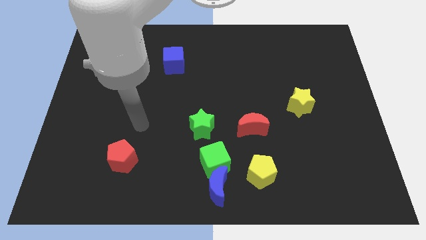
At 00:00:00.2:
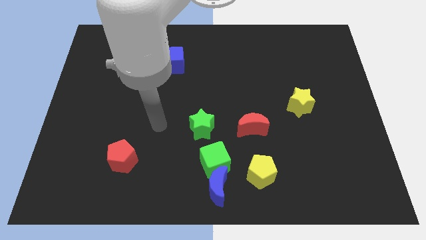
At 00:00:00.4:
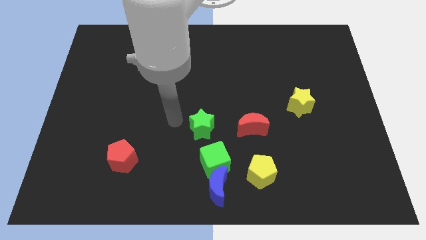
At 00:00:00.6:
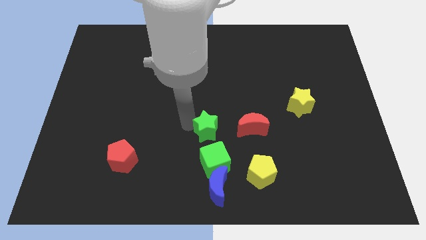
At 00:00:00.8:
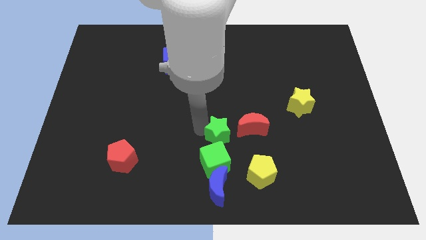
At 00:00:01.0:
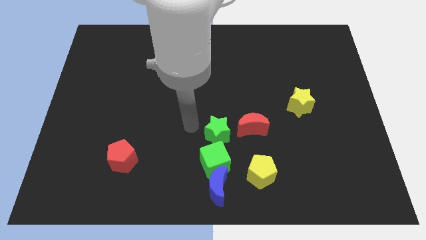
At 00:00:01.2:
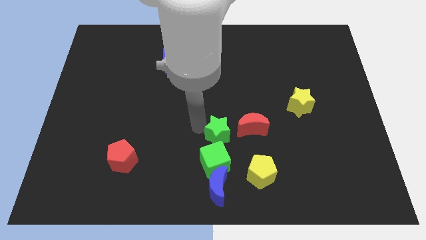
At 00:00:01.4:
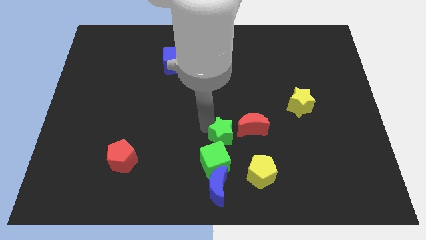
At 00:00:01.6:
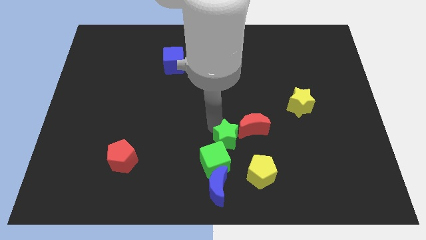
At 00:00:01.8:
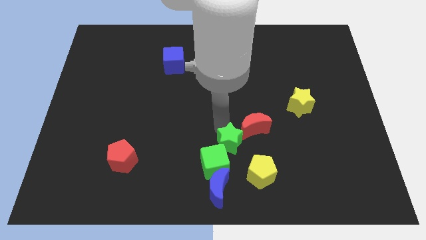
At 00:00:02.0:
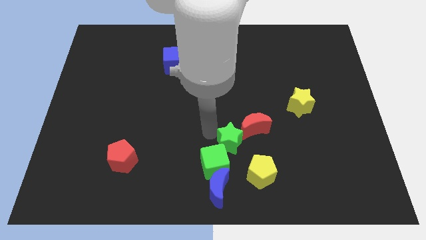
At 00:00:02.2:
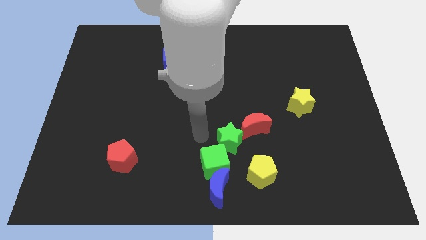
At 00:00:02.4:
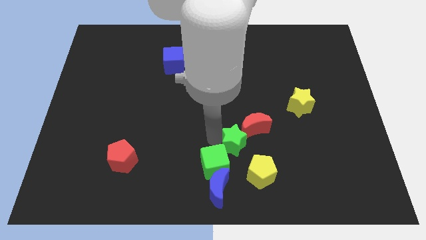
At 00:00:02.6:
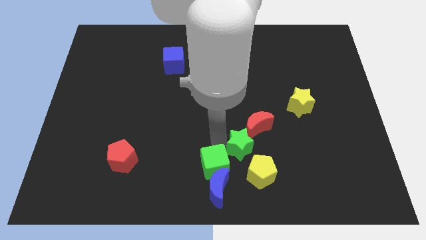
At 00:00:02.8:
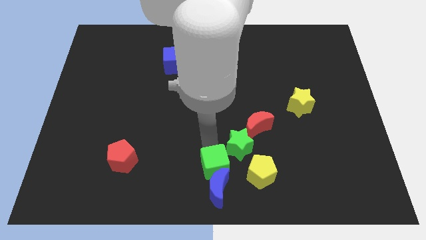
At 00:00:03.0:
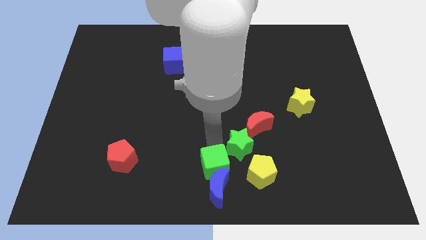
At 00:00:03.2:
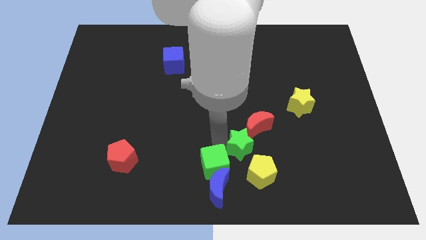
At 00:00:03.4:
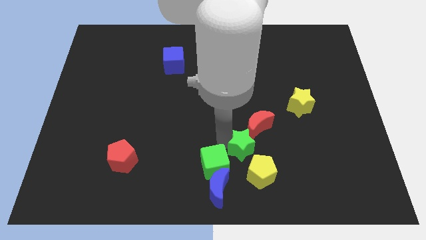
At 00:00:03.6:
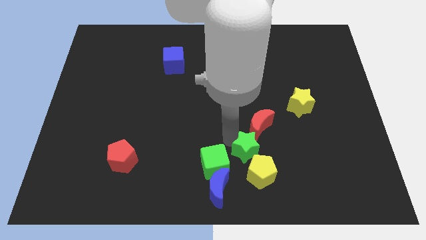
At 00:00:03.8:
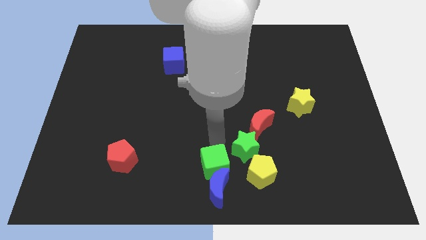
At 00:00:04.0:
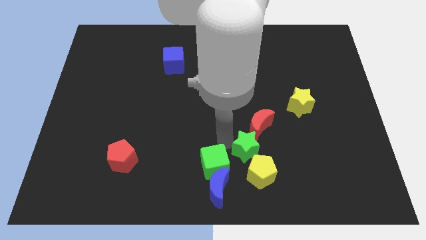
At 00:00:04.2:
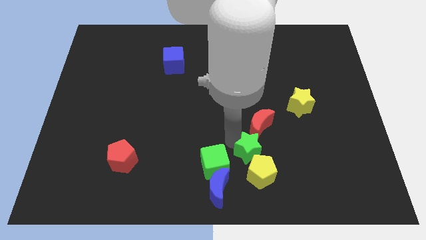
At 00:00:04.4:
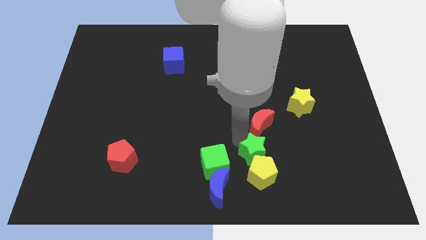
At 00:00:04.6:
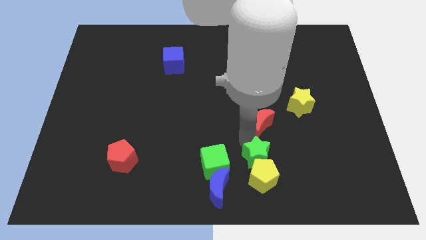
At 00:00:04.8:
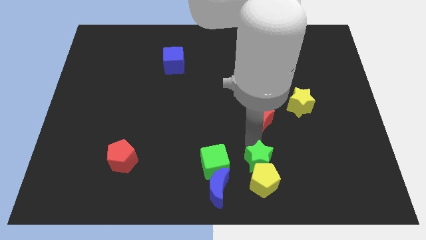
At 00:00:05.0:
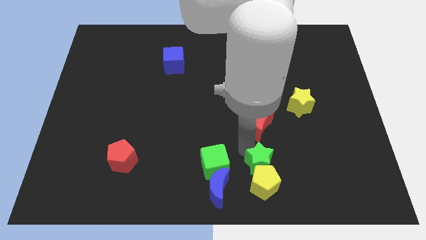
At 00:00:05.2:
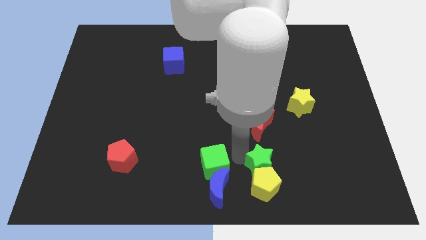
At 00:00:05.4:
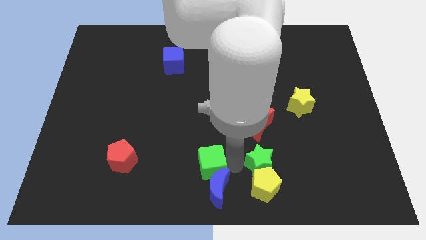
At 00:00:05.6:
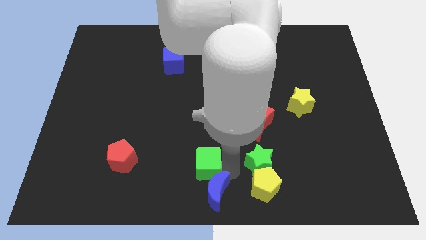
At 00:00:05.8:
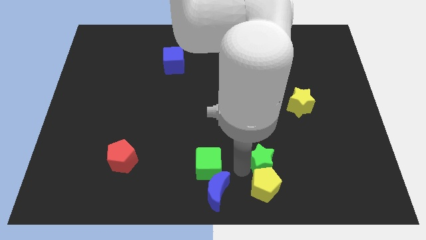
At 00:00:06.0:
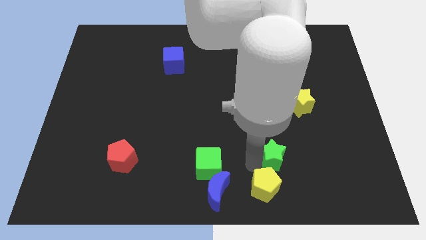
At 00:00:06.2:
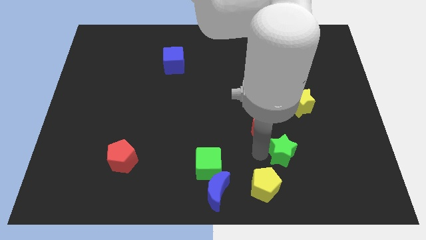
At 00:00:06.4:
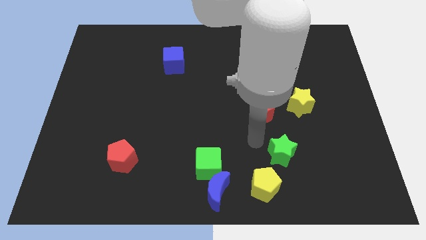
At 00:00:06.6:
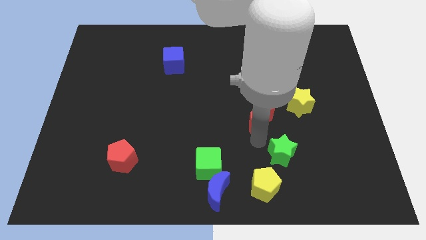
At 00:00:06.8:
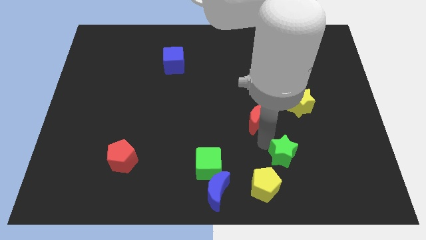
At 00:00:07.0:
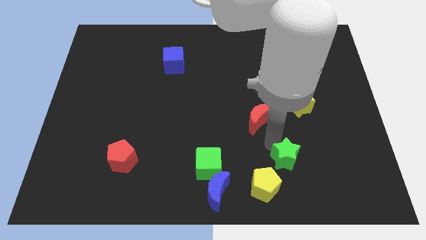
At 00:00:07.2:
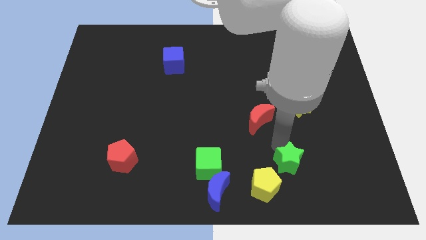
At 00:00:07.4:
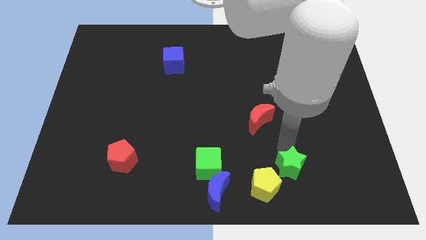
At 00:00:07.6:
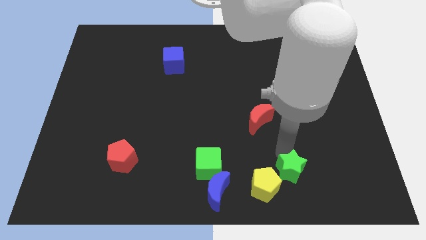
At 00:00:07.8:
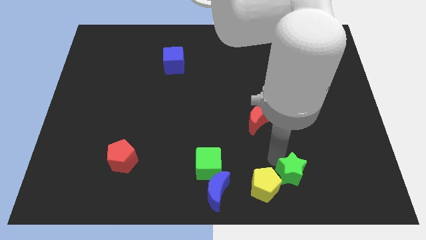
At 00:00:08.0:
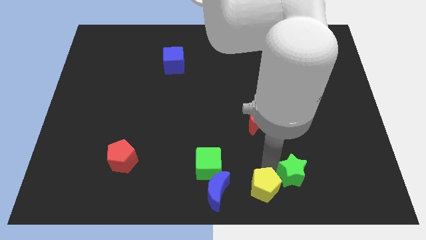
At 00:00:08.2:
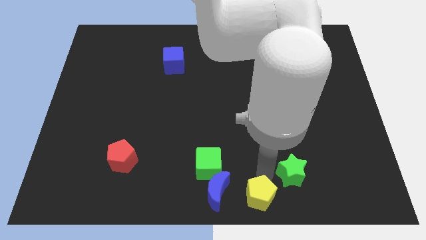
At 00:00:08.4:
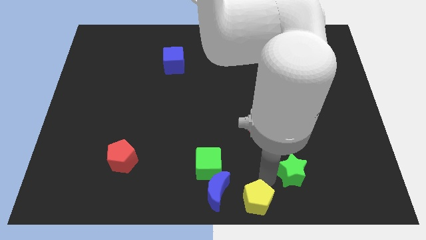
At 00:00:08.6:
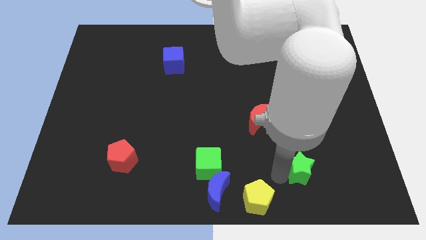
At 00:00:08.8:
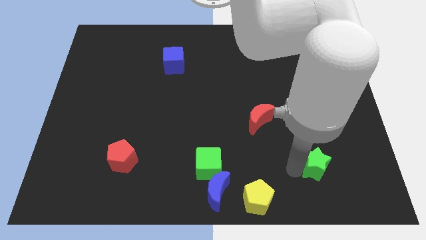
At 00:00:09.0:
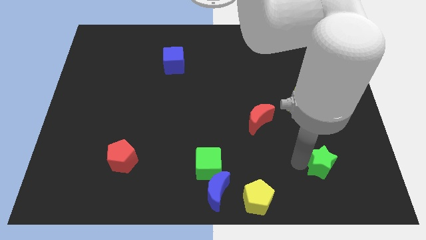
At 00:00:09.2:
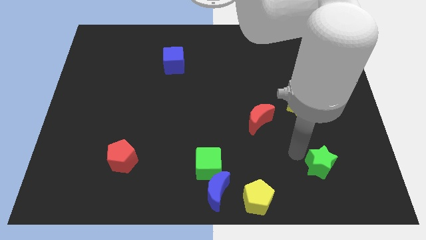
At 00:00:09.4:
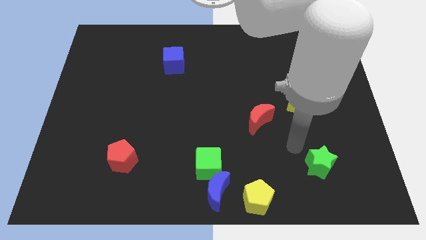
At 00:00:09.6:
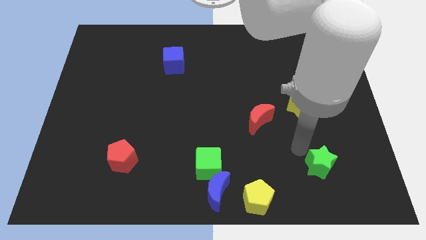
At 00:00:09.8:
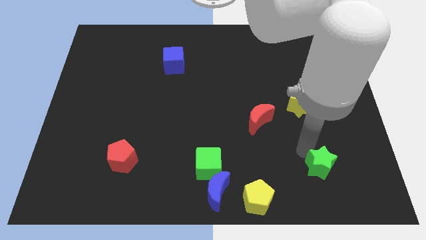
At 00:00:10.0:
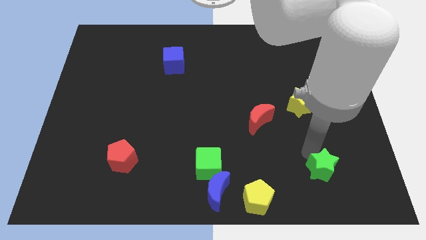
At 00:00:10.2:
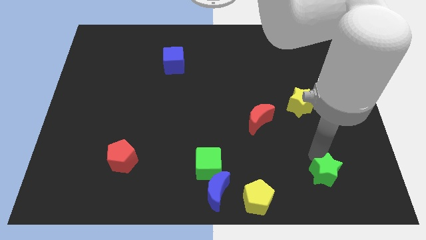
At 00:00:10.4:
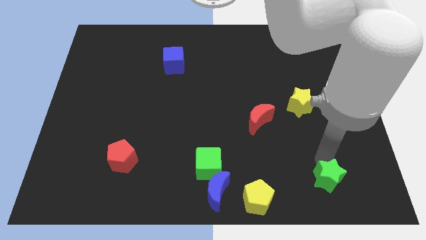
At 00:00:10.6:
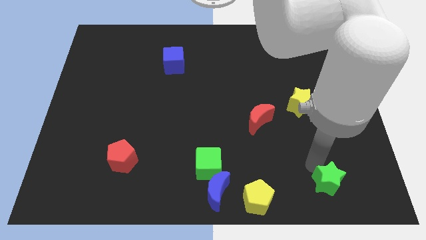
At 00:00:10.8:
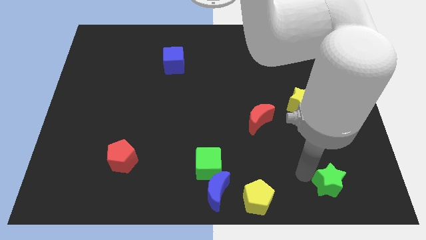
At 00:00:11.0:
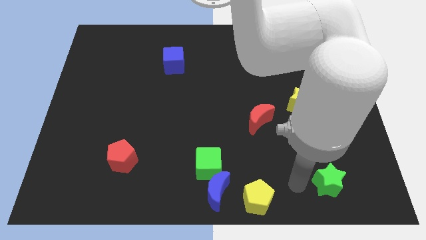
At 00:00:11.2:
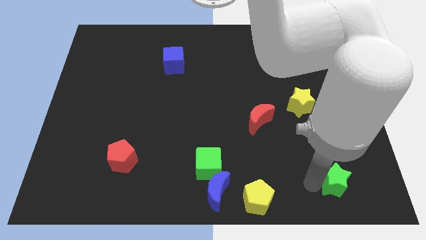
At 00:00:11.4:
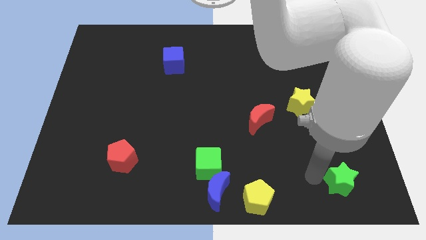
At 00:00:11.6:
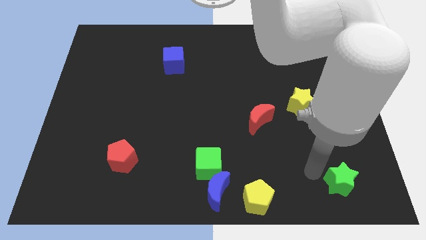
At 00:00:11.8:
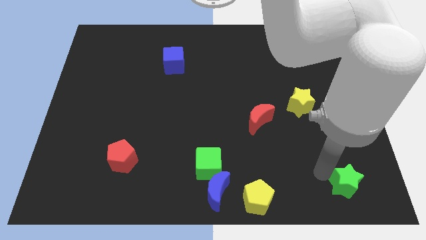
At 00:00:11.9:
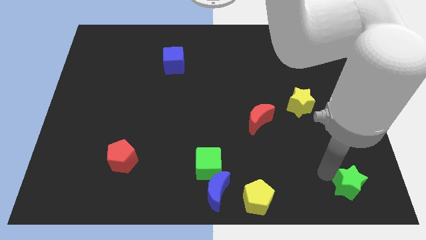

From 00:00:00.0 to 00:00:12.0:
put the green star to the bottom right of the board

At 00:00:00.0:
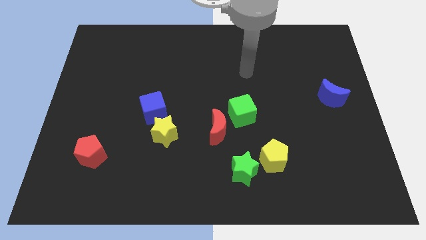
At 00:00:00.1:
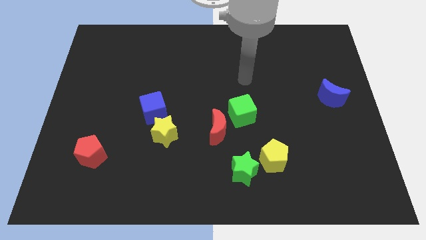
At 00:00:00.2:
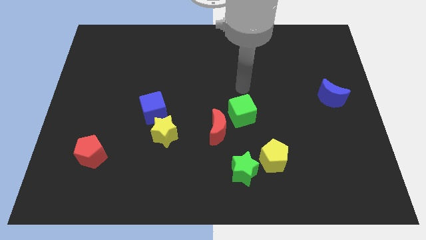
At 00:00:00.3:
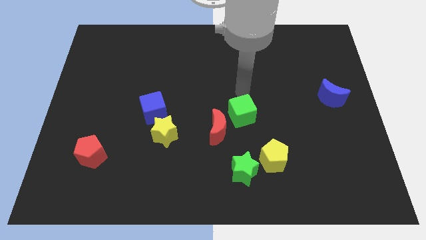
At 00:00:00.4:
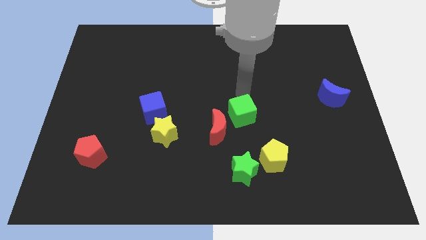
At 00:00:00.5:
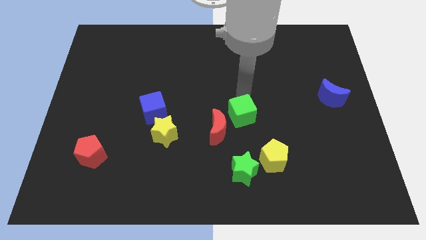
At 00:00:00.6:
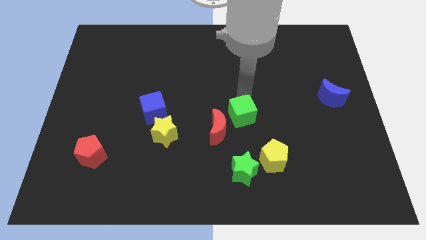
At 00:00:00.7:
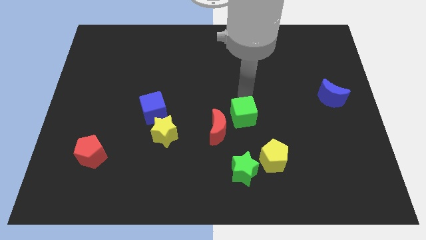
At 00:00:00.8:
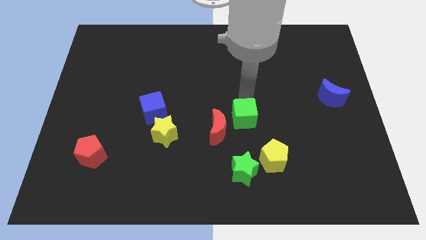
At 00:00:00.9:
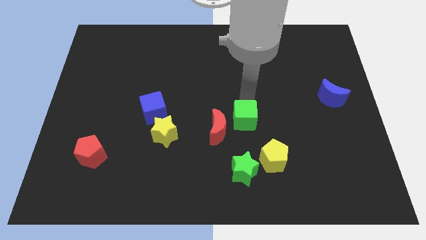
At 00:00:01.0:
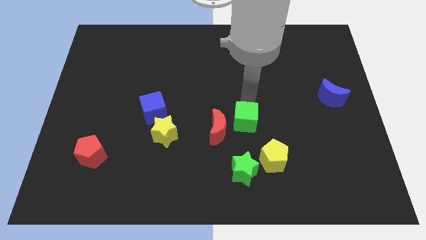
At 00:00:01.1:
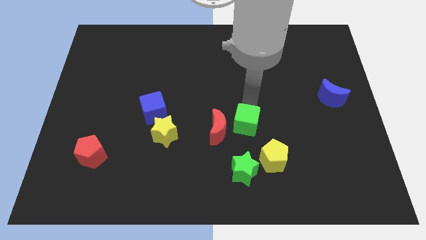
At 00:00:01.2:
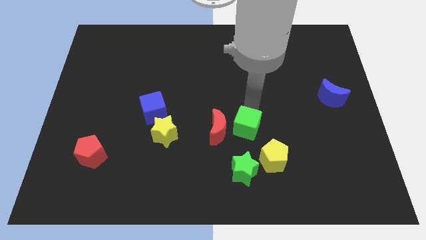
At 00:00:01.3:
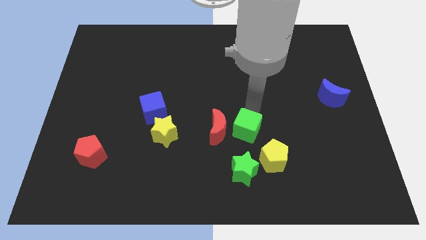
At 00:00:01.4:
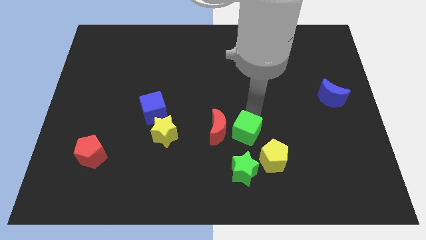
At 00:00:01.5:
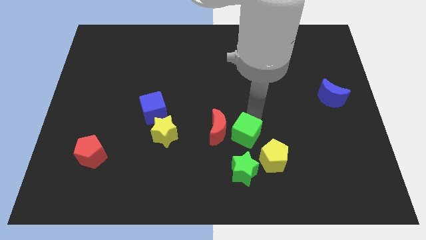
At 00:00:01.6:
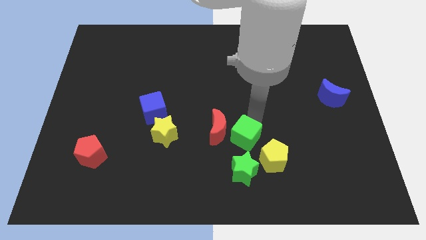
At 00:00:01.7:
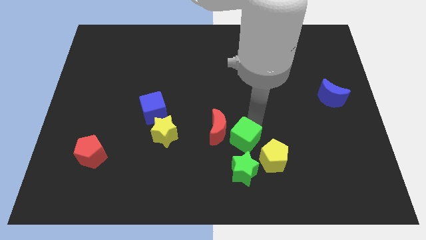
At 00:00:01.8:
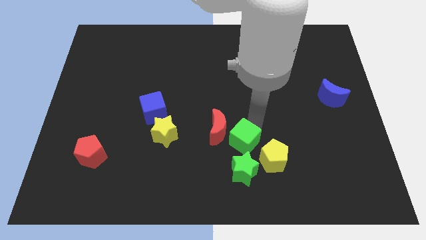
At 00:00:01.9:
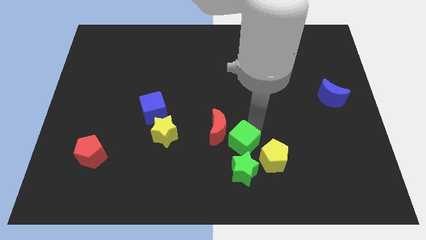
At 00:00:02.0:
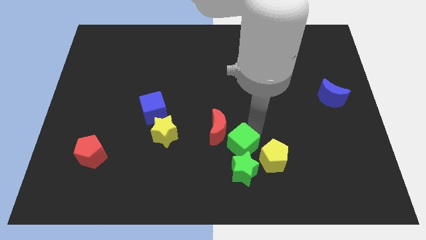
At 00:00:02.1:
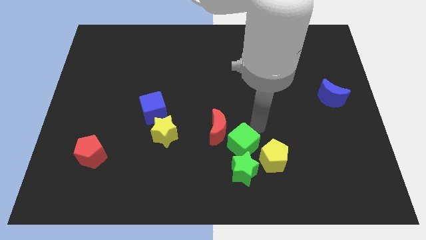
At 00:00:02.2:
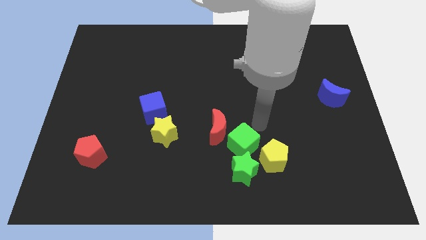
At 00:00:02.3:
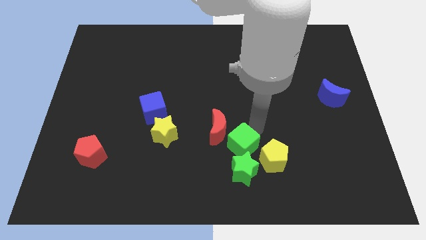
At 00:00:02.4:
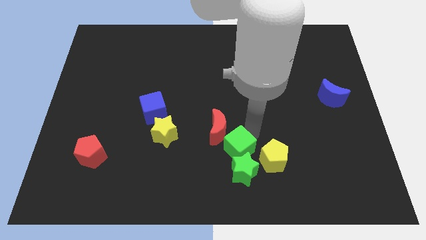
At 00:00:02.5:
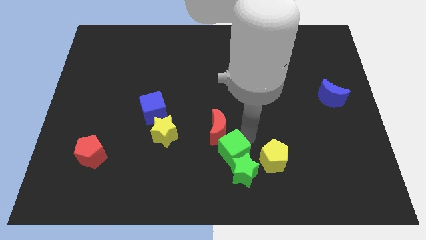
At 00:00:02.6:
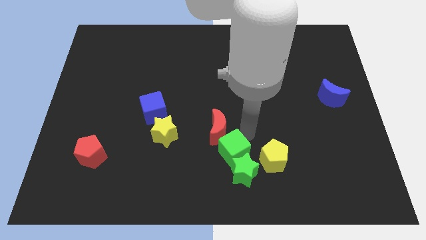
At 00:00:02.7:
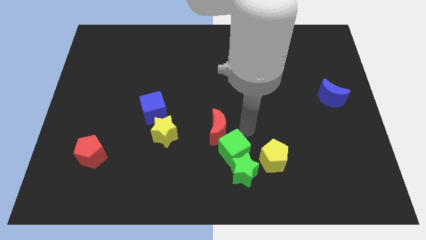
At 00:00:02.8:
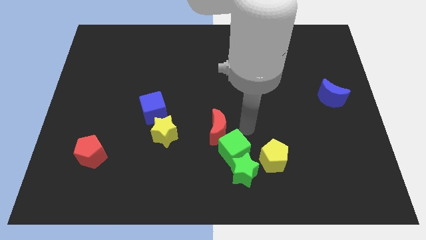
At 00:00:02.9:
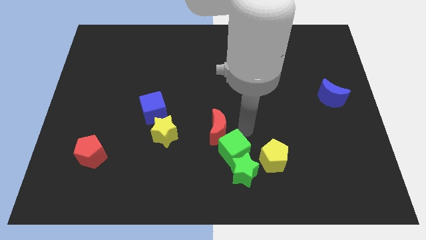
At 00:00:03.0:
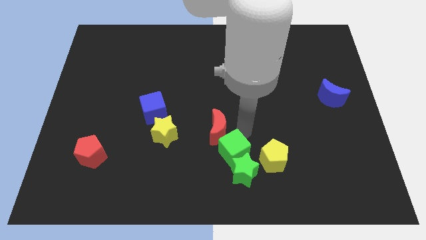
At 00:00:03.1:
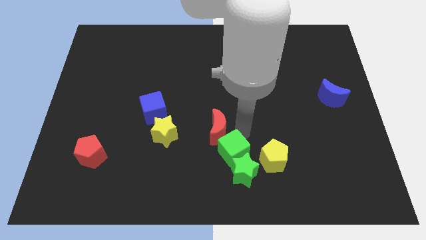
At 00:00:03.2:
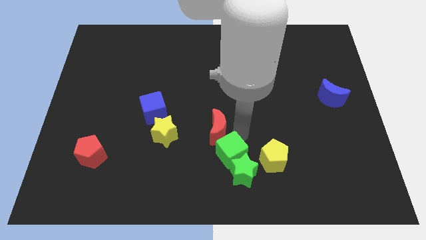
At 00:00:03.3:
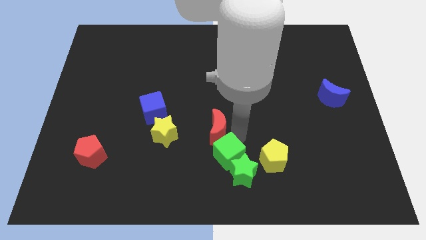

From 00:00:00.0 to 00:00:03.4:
move the green cube to the bottom
